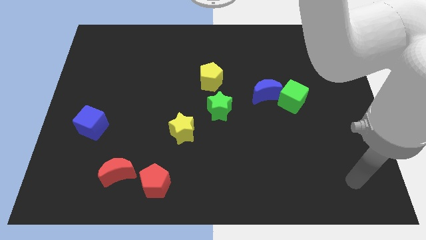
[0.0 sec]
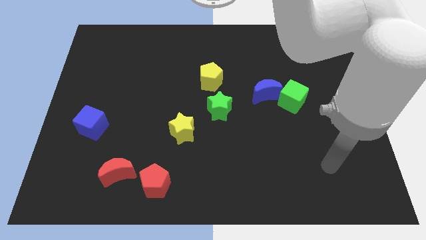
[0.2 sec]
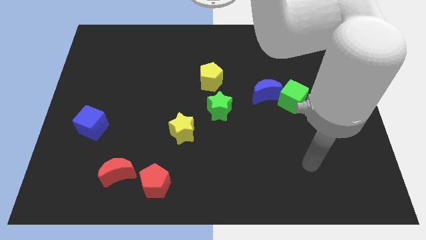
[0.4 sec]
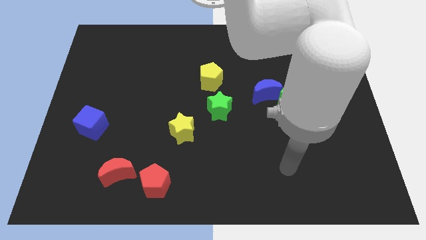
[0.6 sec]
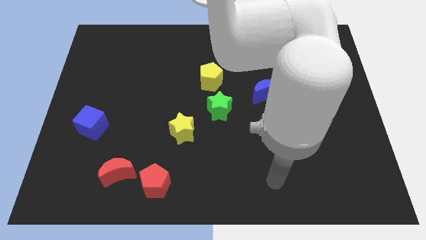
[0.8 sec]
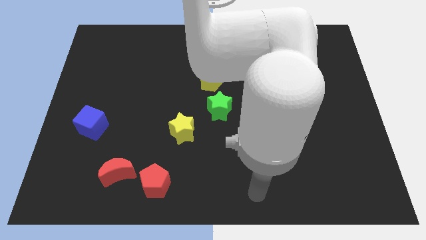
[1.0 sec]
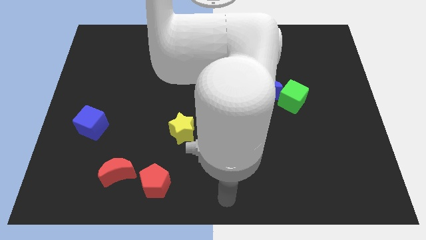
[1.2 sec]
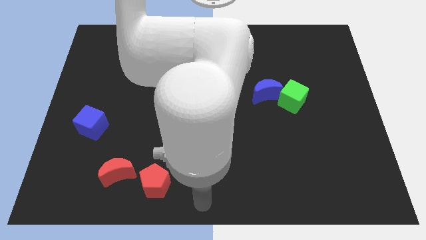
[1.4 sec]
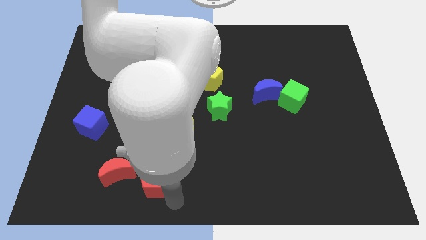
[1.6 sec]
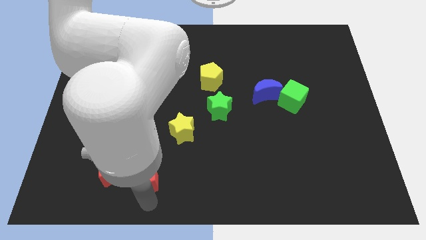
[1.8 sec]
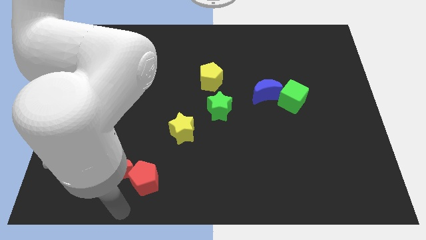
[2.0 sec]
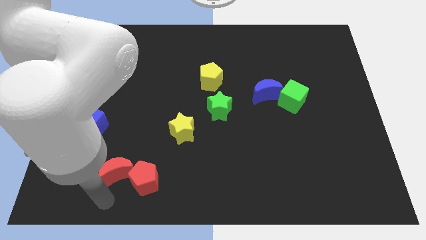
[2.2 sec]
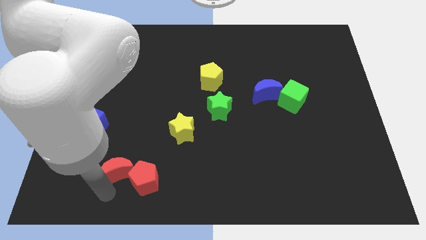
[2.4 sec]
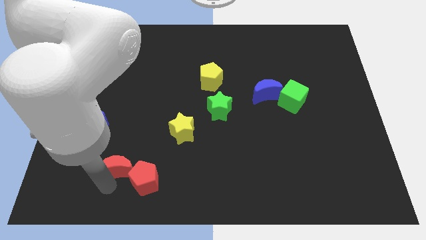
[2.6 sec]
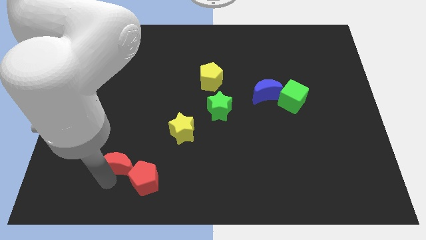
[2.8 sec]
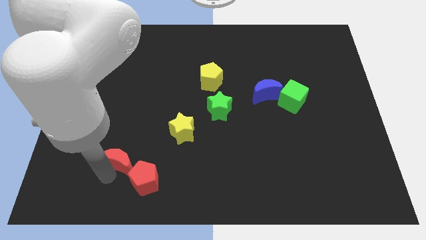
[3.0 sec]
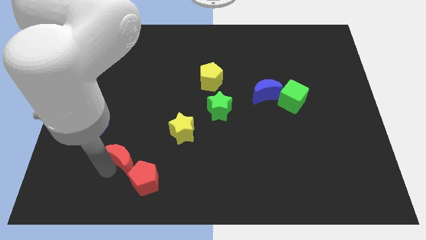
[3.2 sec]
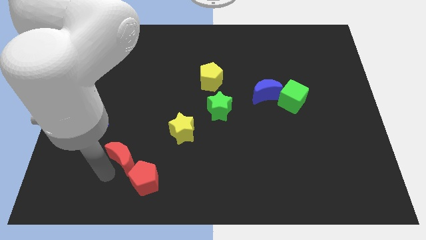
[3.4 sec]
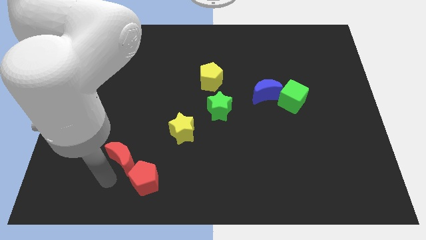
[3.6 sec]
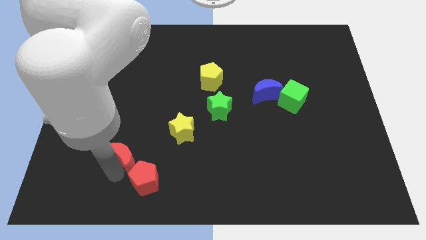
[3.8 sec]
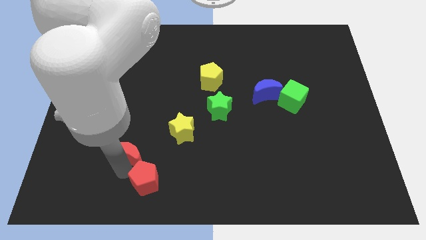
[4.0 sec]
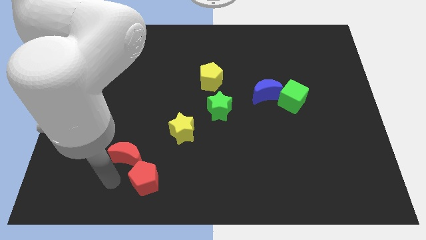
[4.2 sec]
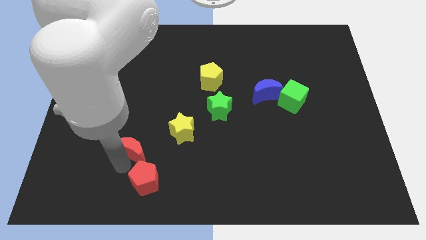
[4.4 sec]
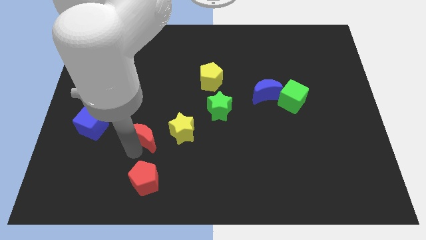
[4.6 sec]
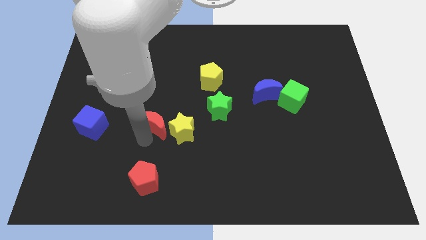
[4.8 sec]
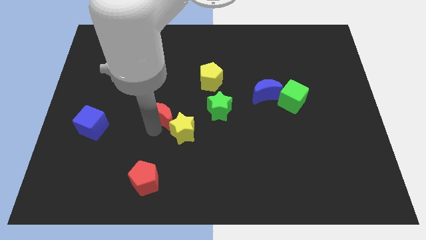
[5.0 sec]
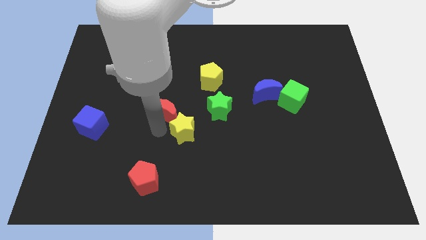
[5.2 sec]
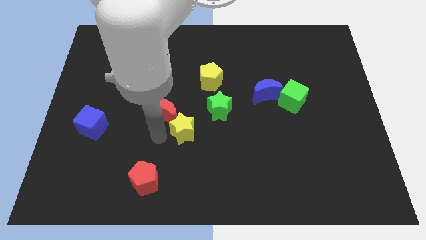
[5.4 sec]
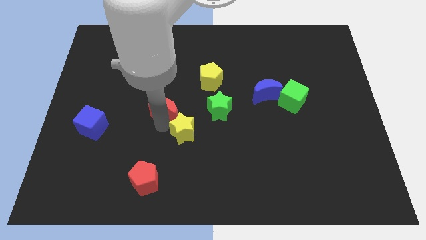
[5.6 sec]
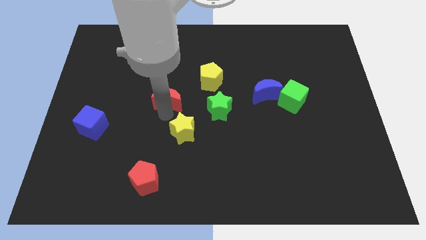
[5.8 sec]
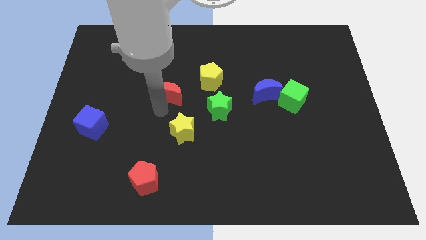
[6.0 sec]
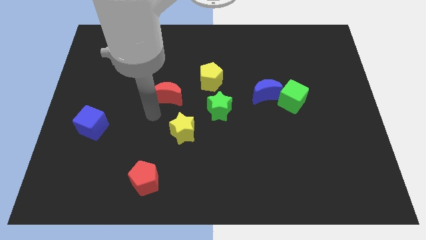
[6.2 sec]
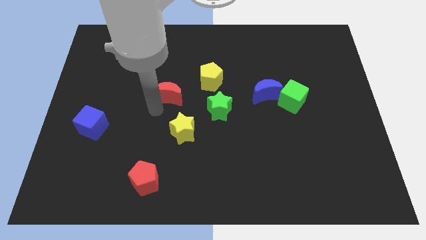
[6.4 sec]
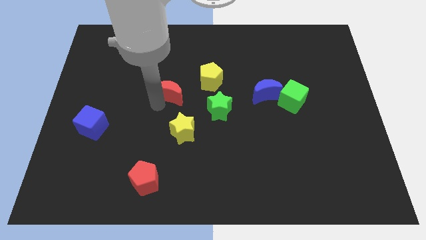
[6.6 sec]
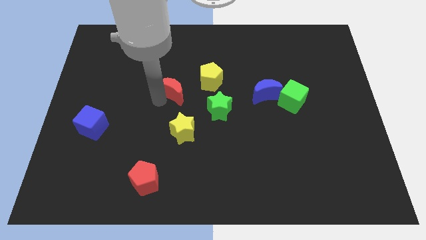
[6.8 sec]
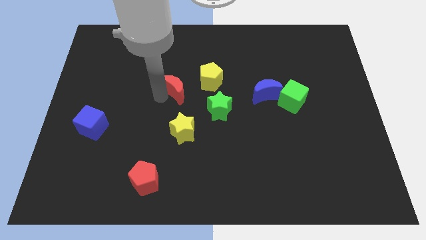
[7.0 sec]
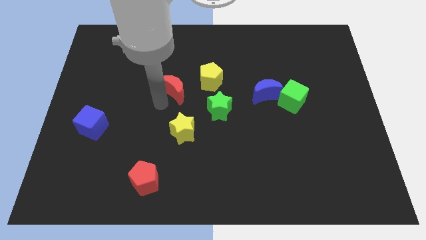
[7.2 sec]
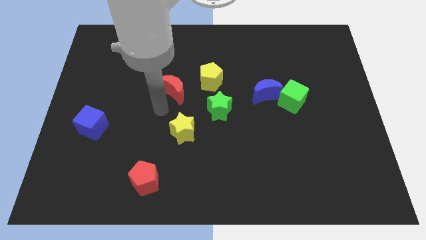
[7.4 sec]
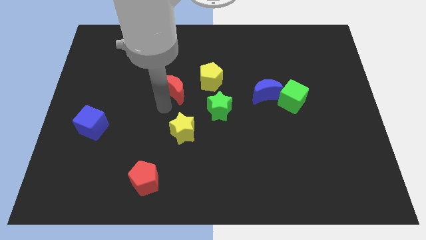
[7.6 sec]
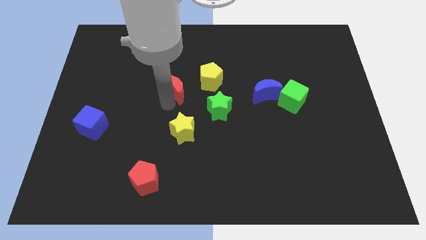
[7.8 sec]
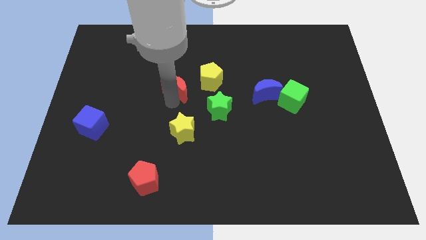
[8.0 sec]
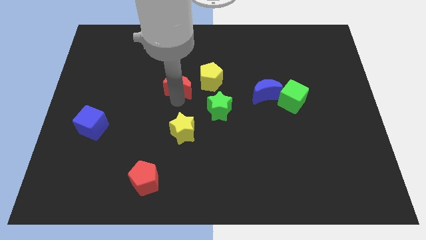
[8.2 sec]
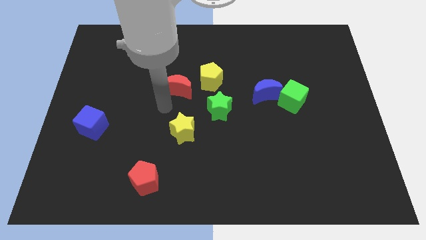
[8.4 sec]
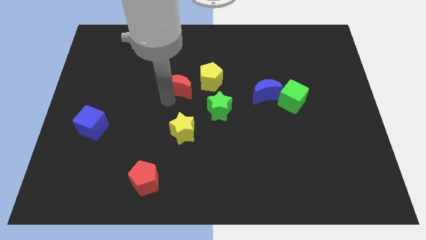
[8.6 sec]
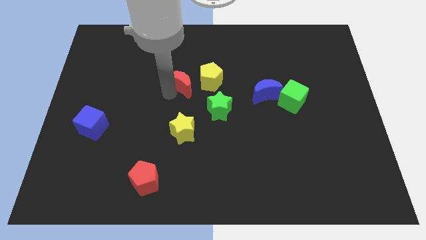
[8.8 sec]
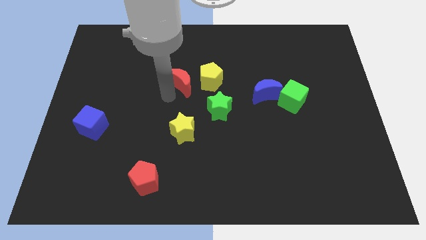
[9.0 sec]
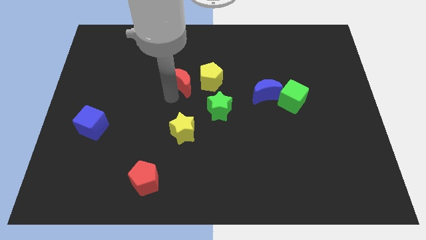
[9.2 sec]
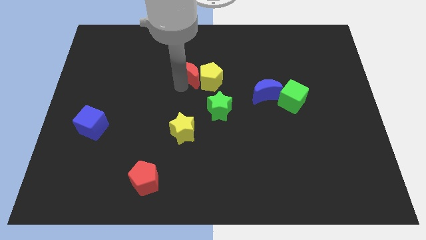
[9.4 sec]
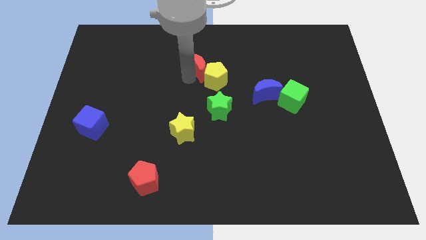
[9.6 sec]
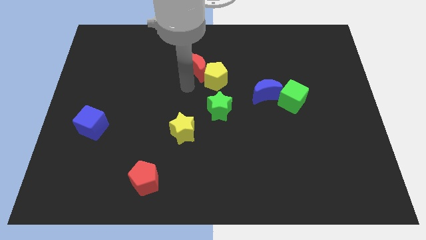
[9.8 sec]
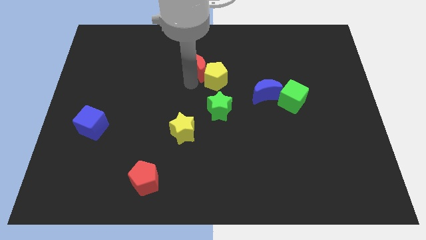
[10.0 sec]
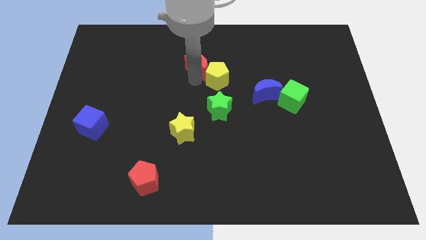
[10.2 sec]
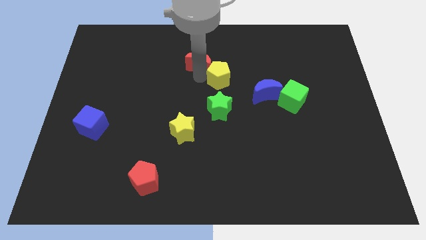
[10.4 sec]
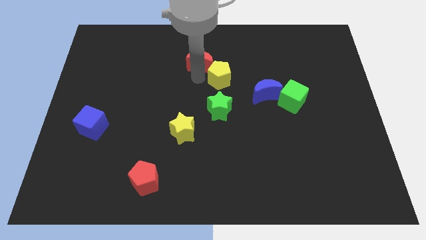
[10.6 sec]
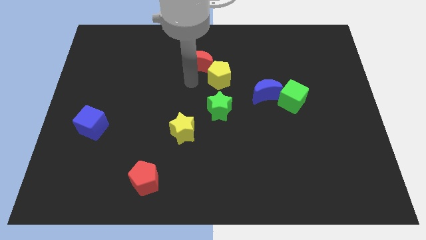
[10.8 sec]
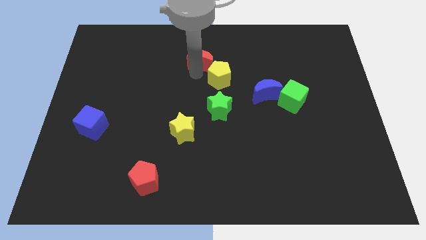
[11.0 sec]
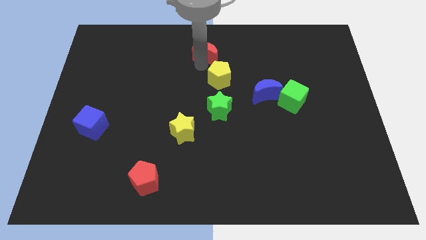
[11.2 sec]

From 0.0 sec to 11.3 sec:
put the red moon to the towards your base
